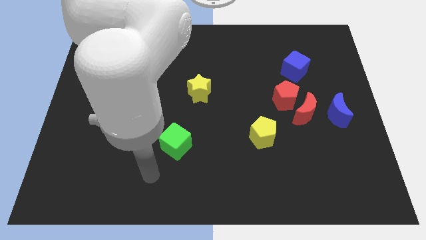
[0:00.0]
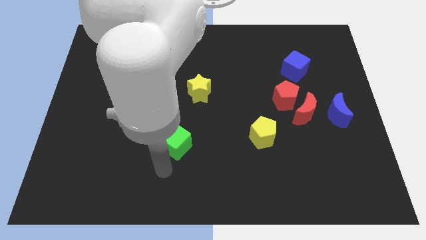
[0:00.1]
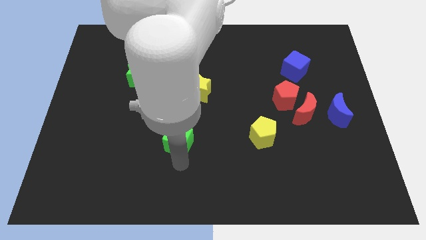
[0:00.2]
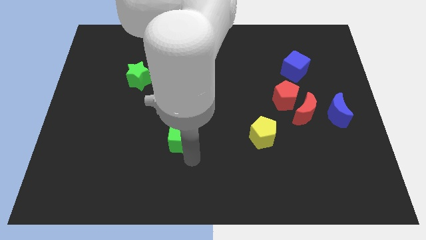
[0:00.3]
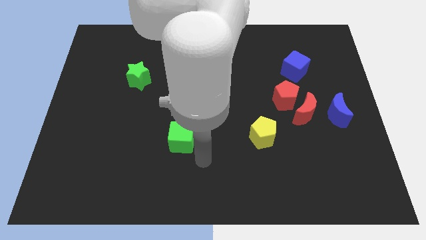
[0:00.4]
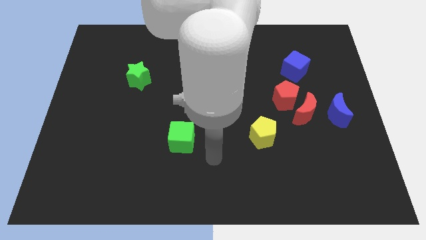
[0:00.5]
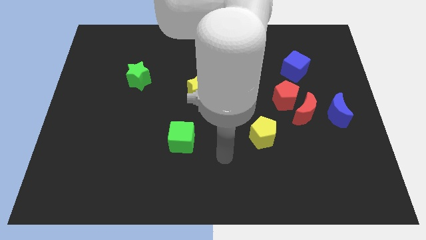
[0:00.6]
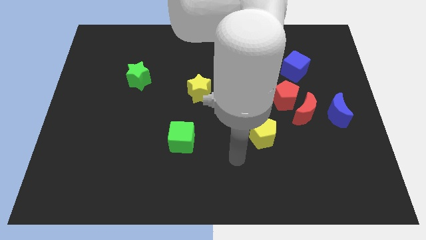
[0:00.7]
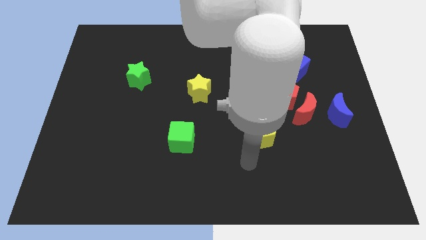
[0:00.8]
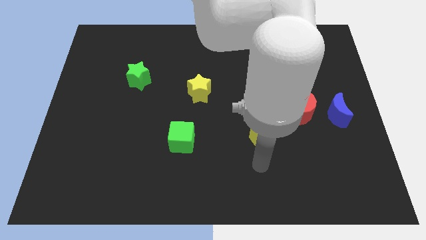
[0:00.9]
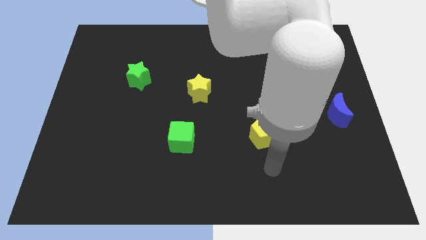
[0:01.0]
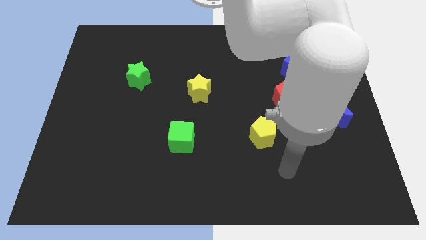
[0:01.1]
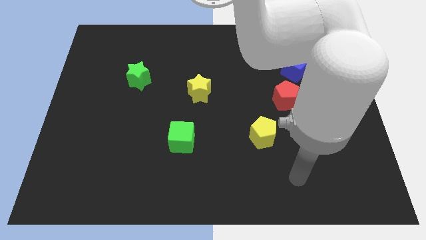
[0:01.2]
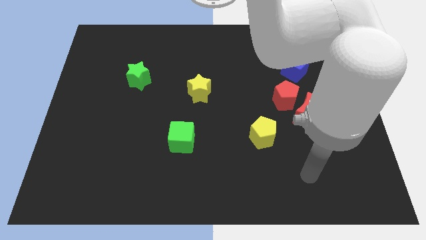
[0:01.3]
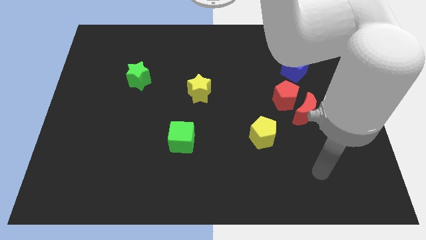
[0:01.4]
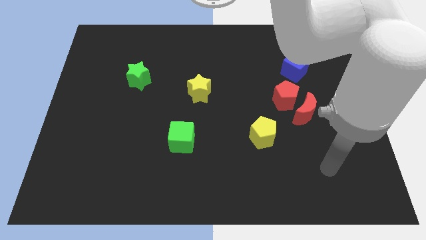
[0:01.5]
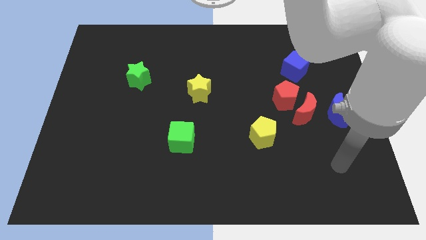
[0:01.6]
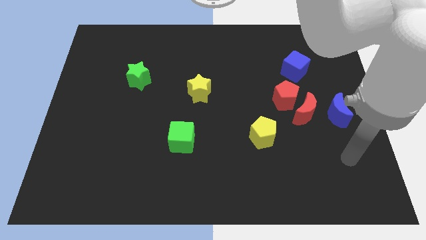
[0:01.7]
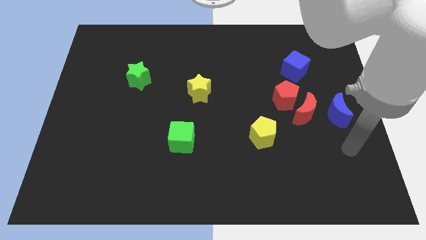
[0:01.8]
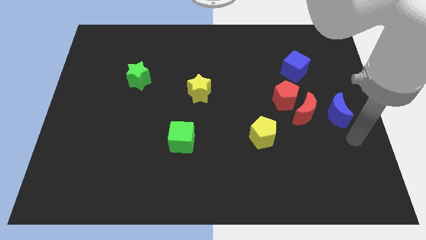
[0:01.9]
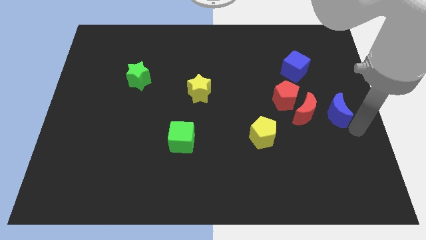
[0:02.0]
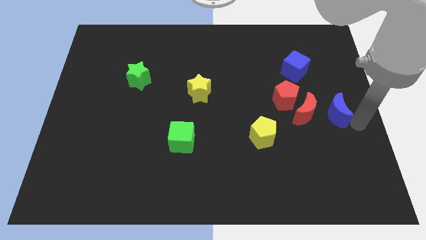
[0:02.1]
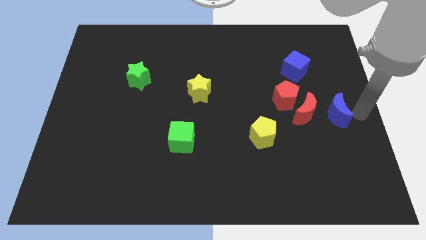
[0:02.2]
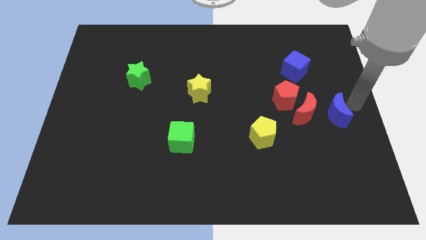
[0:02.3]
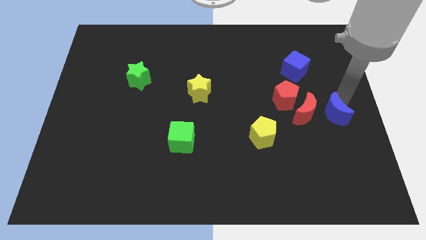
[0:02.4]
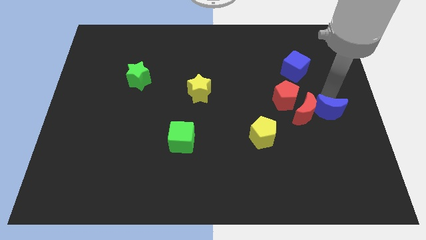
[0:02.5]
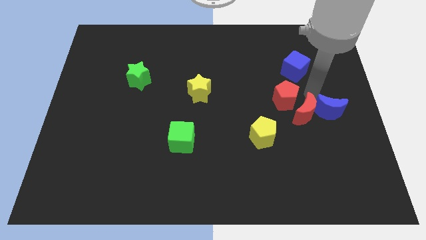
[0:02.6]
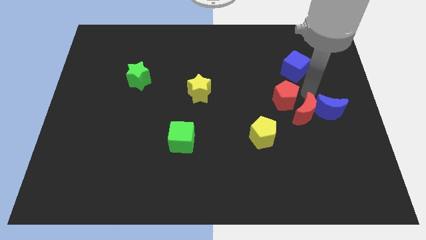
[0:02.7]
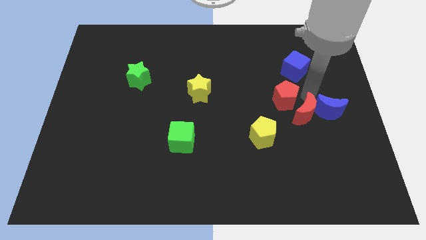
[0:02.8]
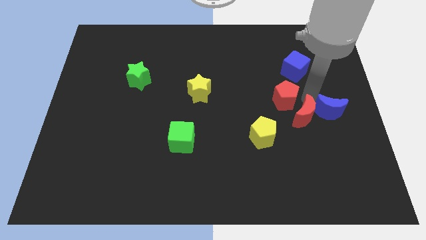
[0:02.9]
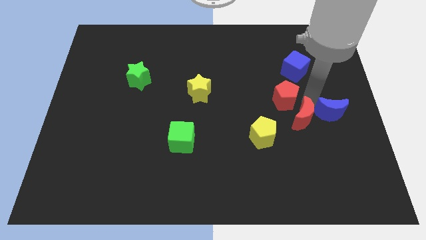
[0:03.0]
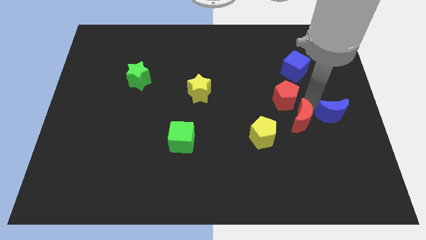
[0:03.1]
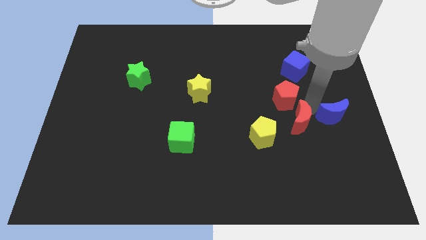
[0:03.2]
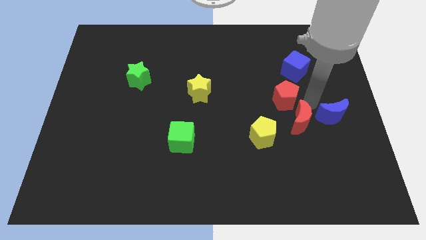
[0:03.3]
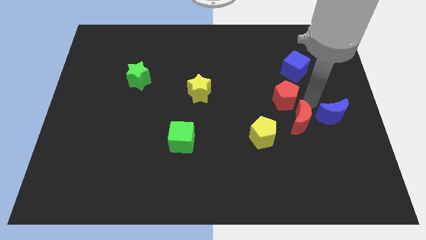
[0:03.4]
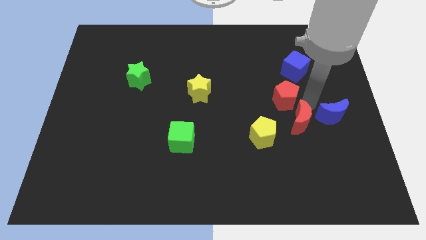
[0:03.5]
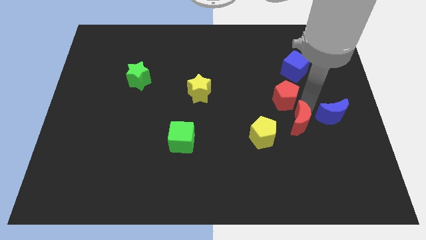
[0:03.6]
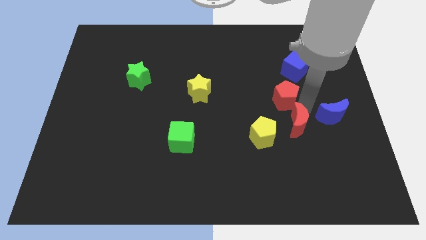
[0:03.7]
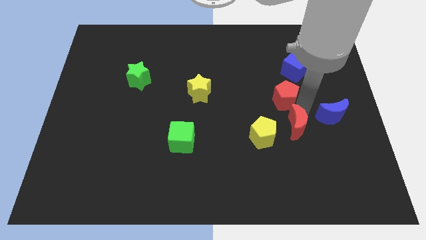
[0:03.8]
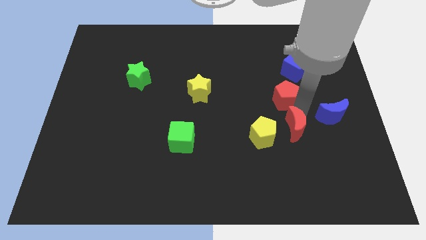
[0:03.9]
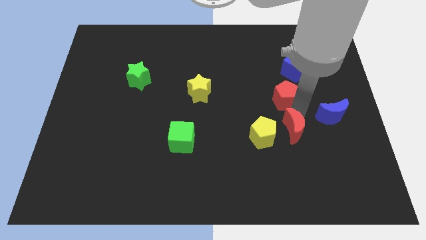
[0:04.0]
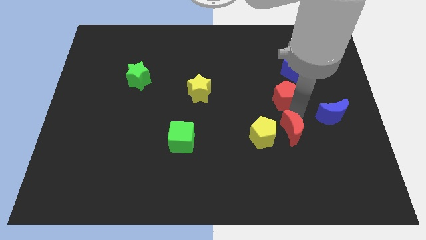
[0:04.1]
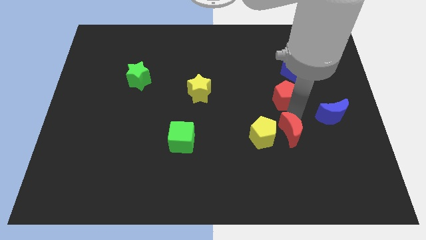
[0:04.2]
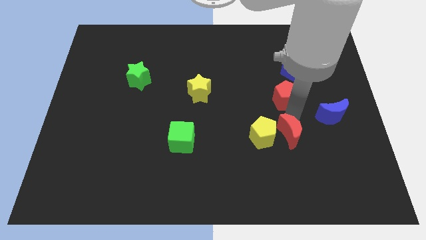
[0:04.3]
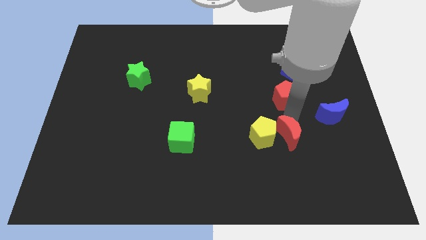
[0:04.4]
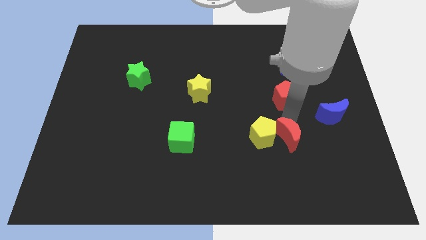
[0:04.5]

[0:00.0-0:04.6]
move the red moon away from the red pentagon and blue moon

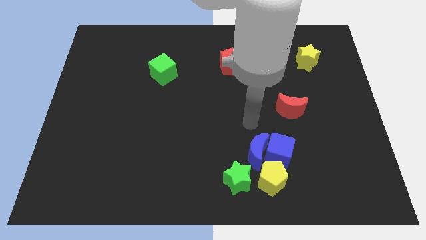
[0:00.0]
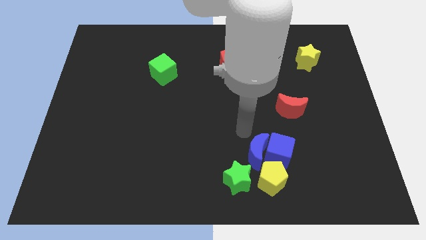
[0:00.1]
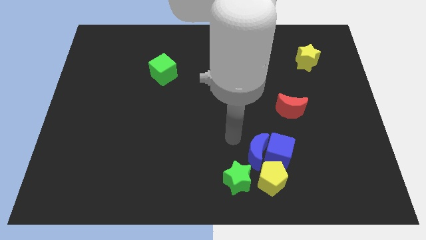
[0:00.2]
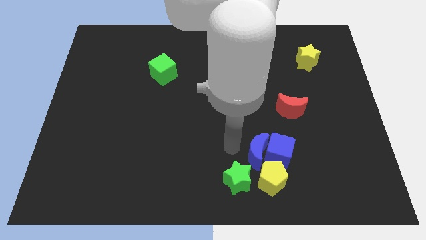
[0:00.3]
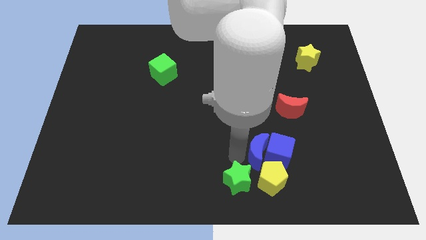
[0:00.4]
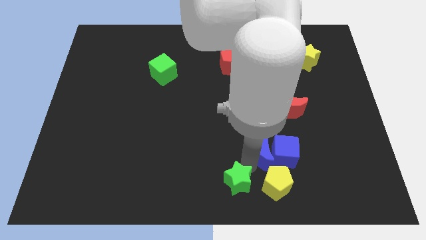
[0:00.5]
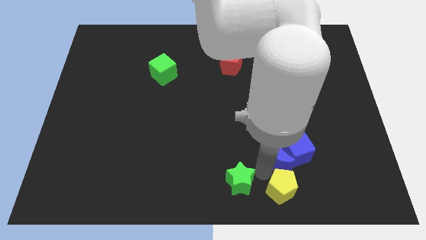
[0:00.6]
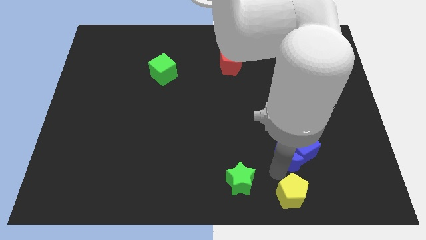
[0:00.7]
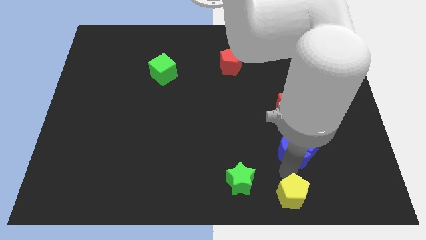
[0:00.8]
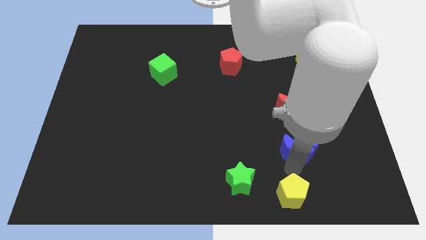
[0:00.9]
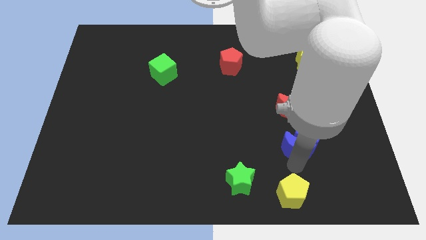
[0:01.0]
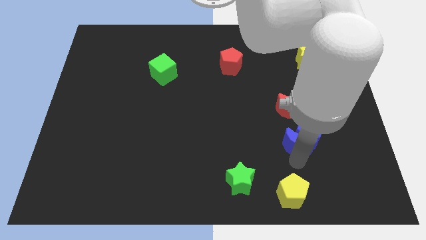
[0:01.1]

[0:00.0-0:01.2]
separate the blue cube from the blue moon and yellow pentagon

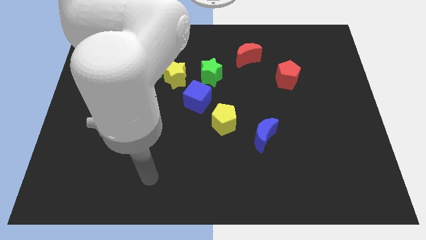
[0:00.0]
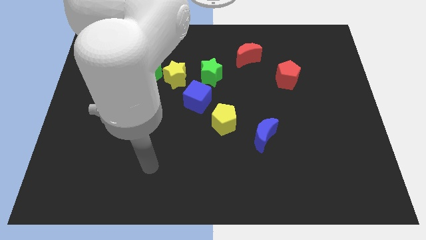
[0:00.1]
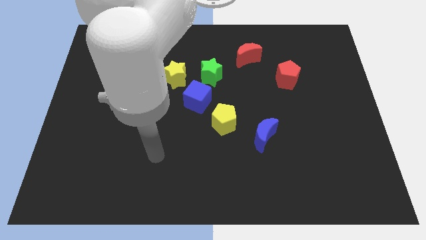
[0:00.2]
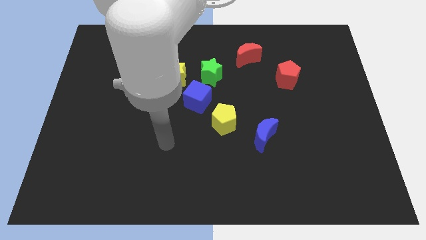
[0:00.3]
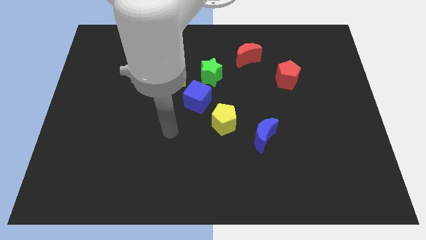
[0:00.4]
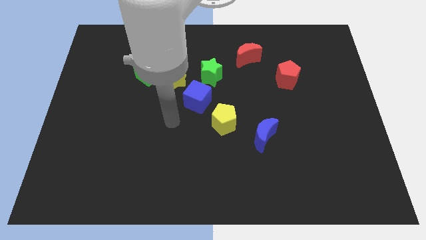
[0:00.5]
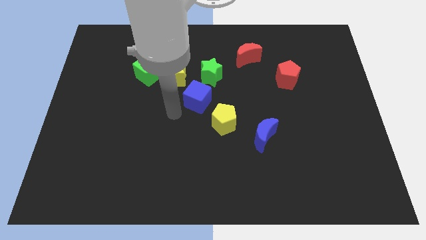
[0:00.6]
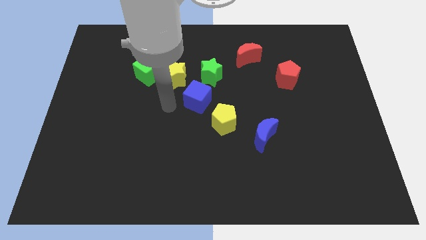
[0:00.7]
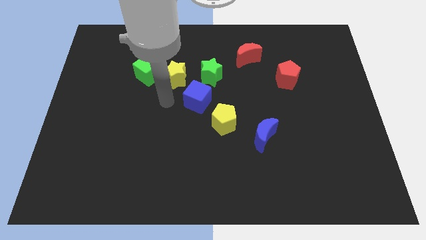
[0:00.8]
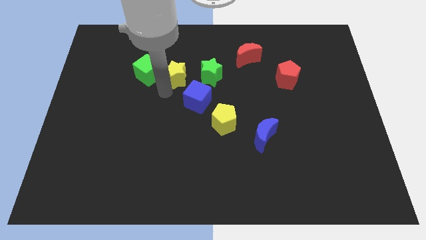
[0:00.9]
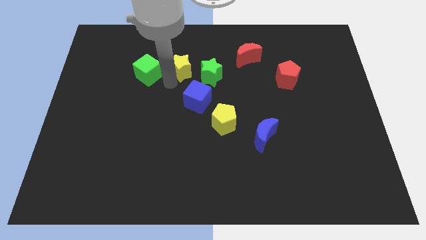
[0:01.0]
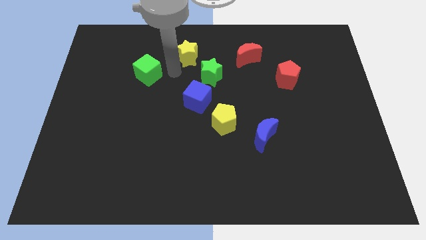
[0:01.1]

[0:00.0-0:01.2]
move the green cube away from the yellow star

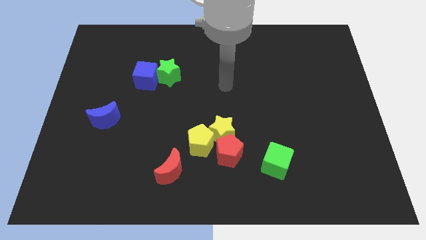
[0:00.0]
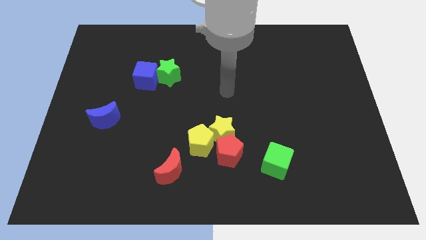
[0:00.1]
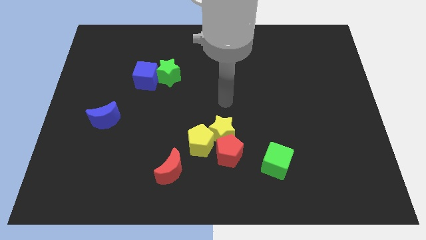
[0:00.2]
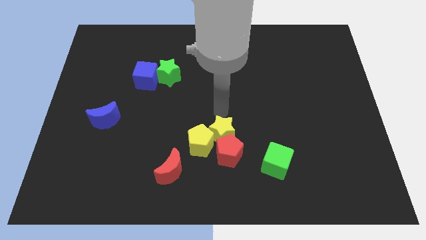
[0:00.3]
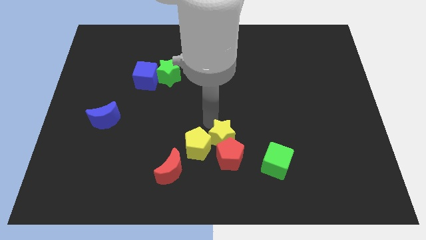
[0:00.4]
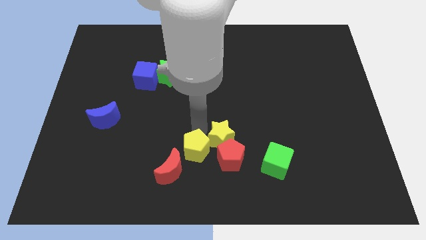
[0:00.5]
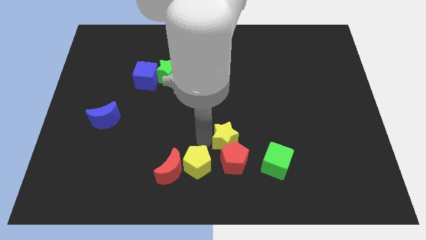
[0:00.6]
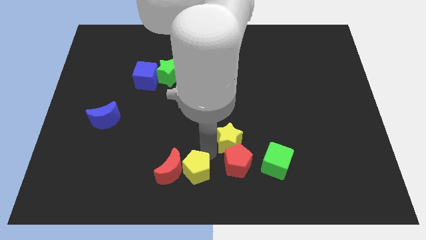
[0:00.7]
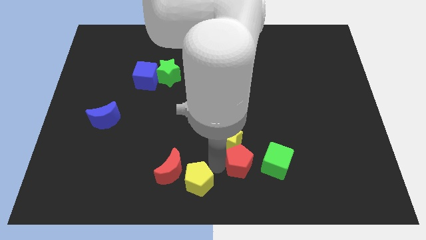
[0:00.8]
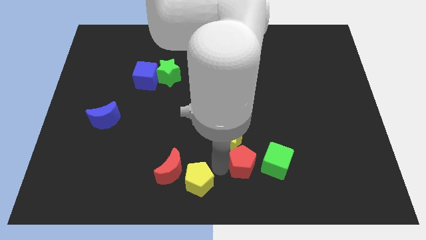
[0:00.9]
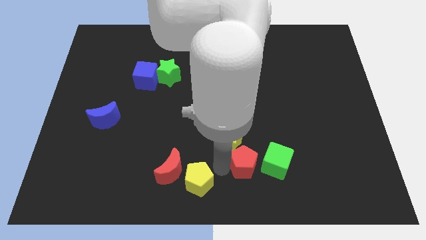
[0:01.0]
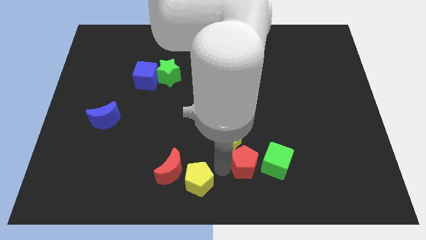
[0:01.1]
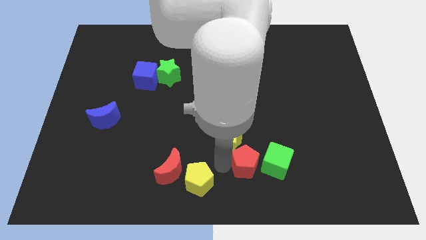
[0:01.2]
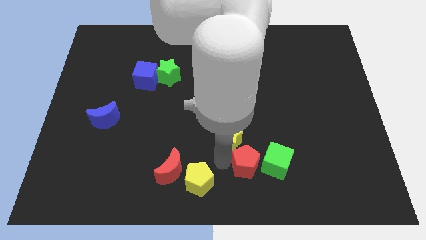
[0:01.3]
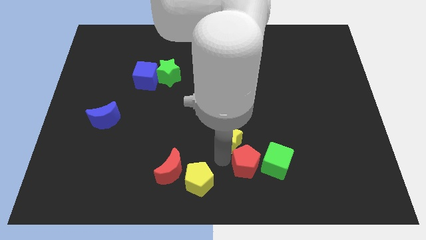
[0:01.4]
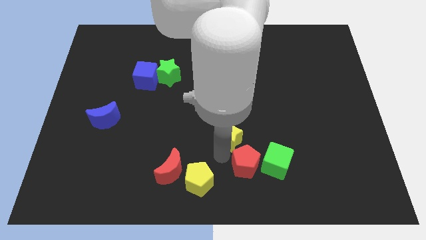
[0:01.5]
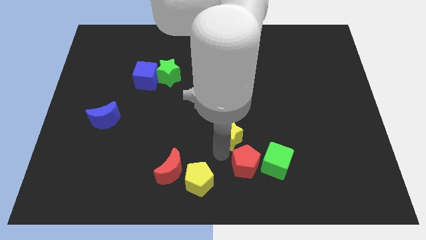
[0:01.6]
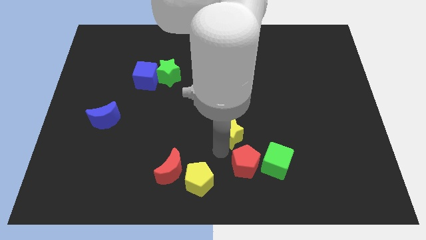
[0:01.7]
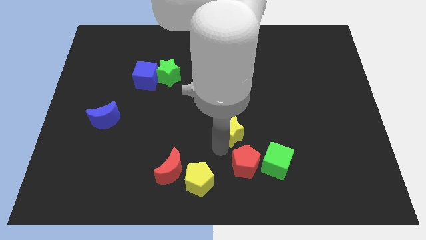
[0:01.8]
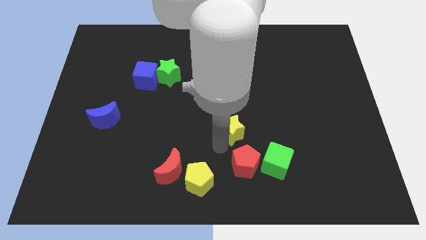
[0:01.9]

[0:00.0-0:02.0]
move the yellow star away from the red pentagon and yellow pentagon

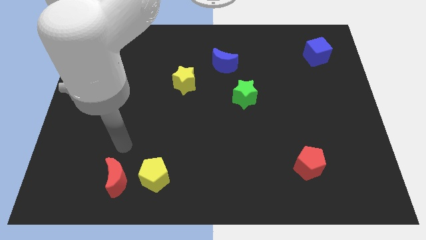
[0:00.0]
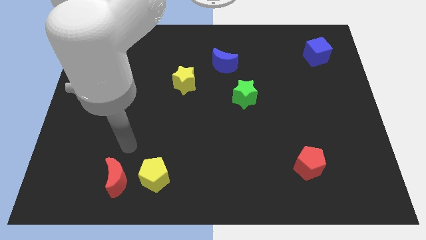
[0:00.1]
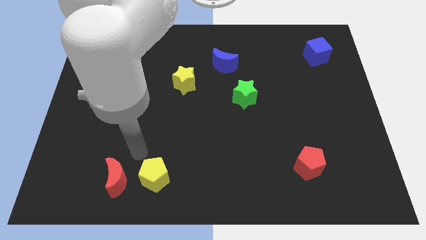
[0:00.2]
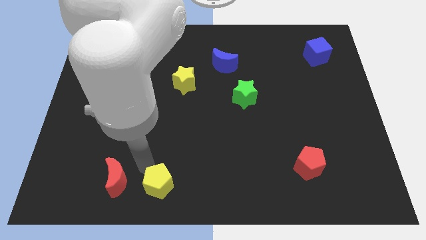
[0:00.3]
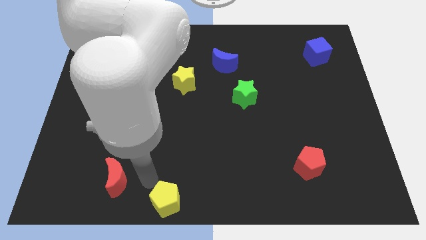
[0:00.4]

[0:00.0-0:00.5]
move the red moon away from the yellow pentagon
